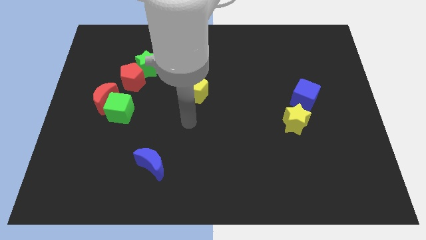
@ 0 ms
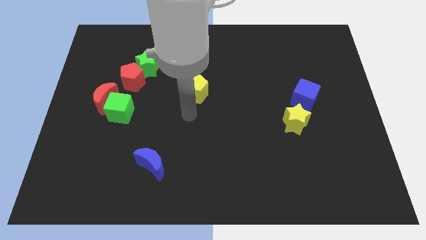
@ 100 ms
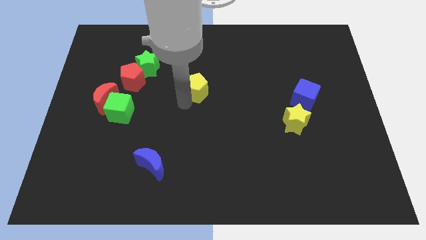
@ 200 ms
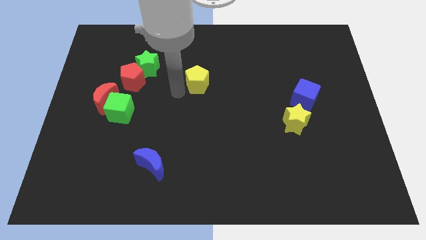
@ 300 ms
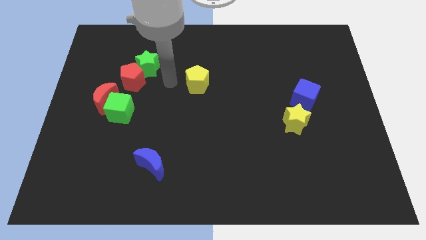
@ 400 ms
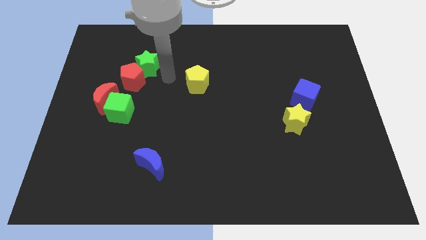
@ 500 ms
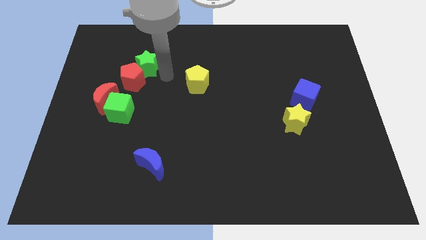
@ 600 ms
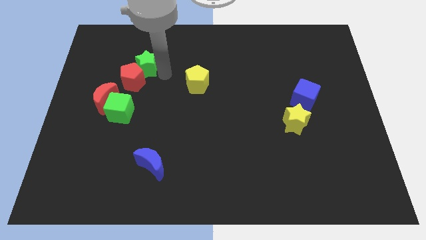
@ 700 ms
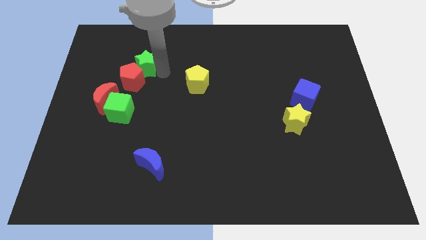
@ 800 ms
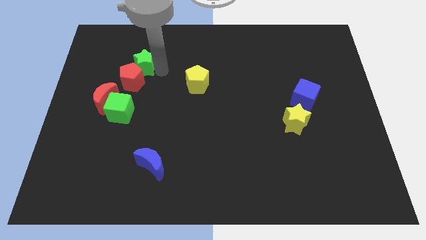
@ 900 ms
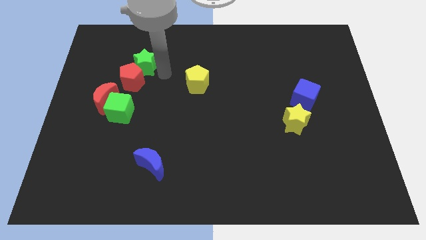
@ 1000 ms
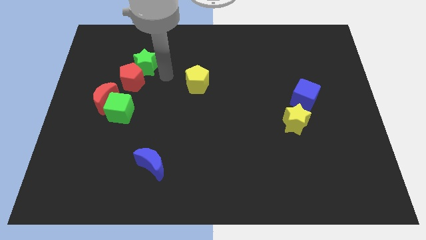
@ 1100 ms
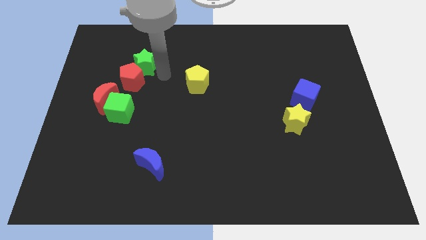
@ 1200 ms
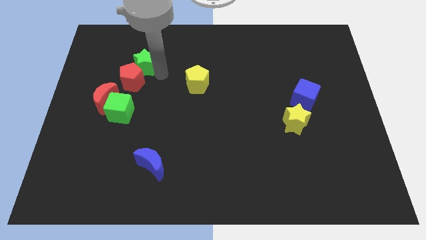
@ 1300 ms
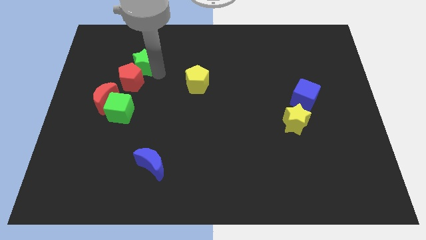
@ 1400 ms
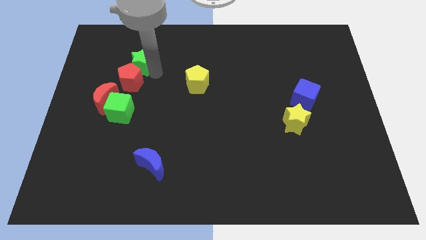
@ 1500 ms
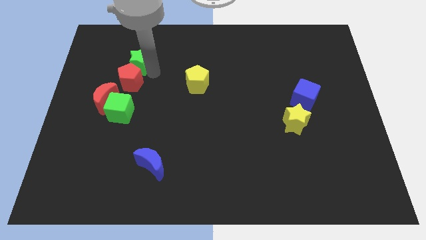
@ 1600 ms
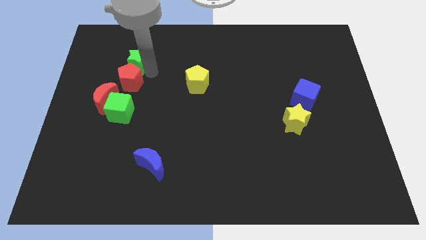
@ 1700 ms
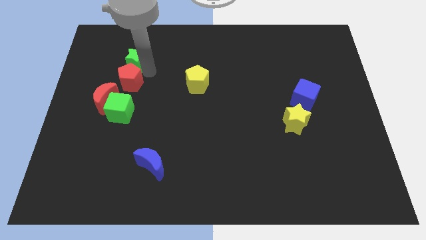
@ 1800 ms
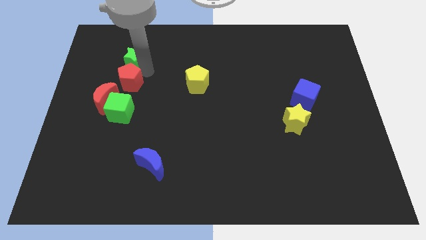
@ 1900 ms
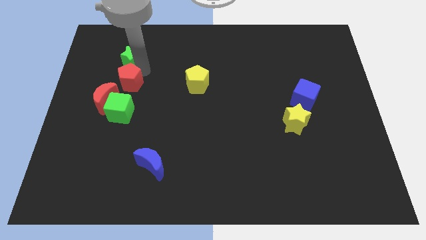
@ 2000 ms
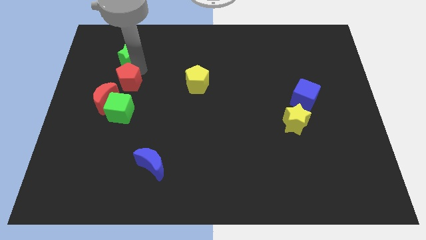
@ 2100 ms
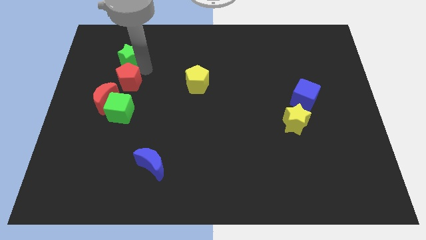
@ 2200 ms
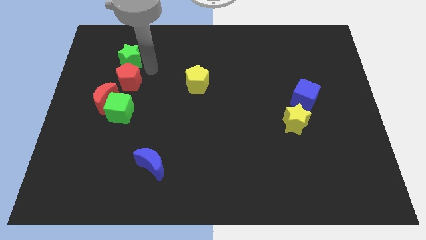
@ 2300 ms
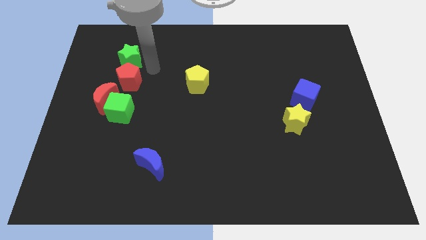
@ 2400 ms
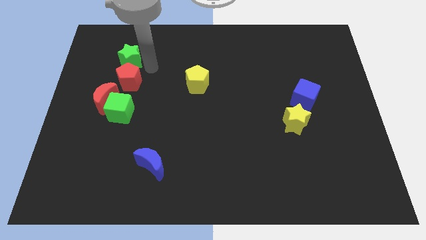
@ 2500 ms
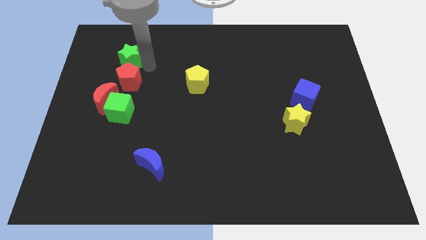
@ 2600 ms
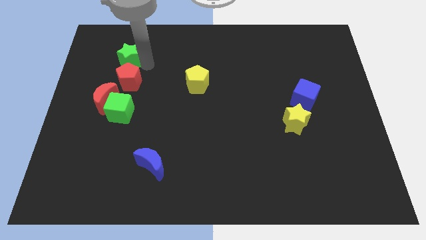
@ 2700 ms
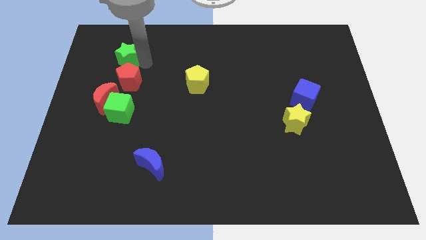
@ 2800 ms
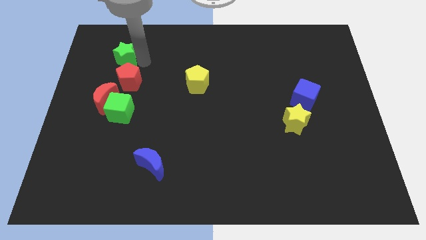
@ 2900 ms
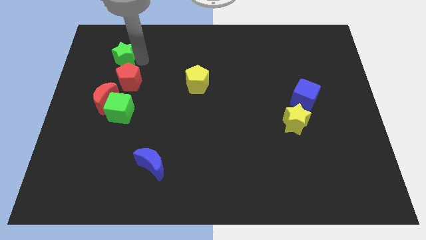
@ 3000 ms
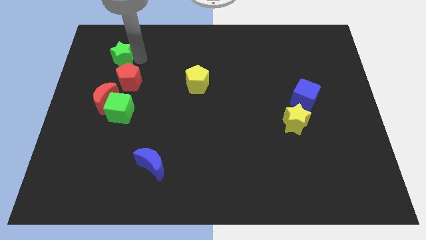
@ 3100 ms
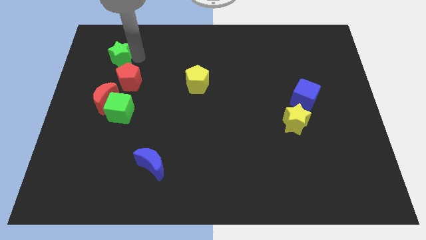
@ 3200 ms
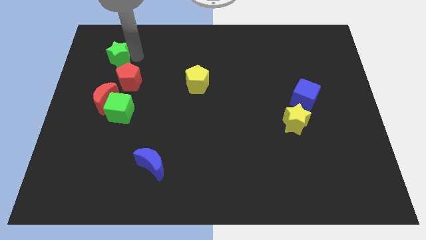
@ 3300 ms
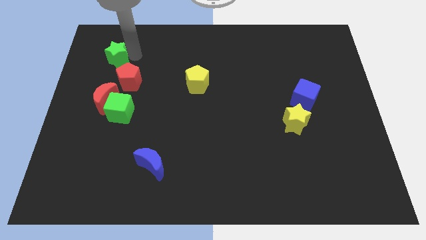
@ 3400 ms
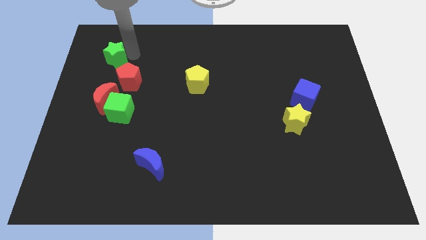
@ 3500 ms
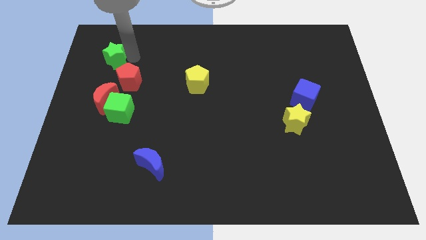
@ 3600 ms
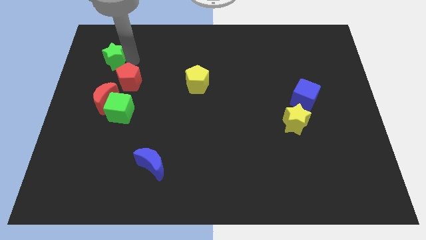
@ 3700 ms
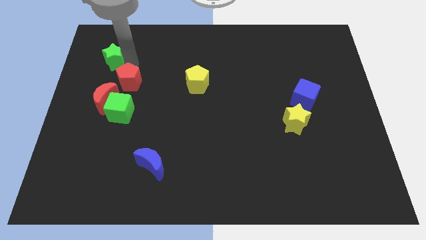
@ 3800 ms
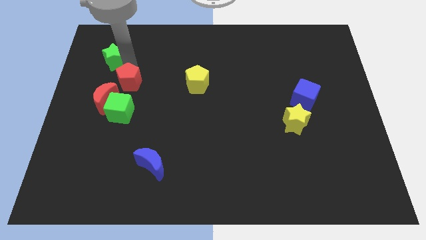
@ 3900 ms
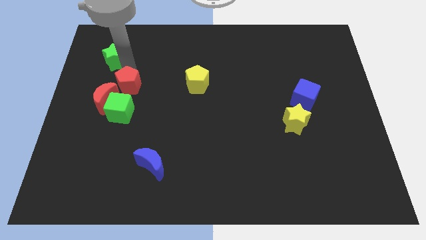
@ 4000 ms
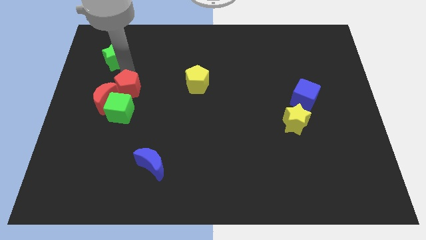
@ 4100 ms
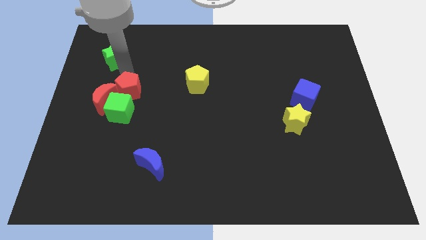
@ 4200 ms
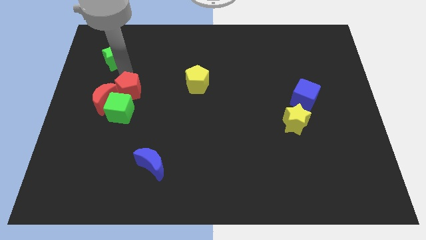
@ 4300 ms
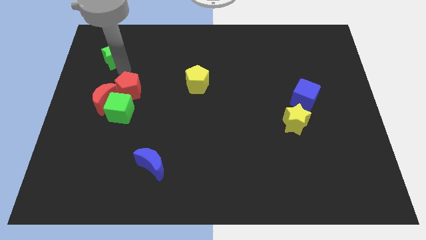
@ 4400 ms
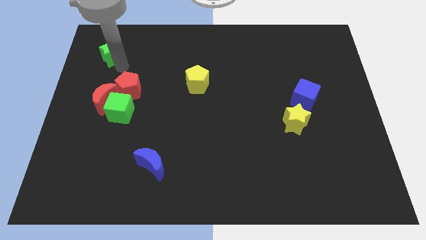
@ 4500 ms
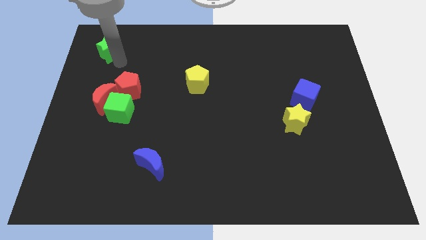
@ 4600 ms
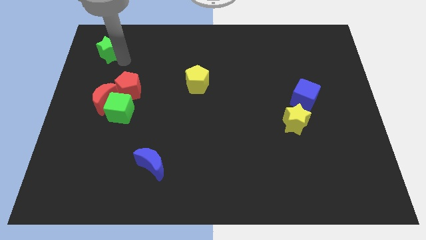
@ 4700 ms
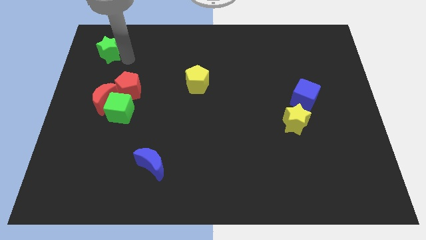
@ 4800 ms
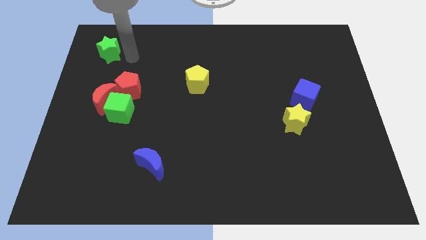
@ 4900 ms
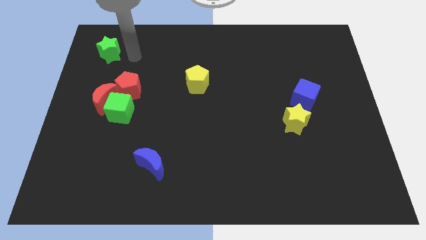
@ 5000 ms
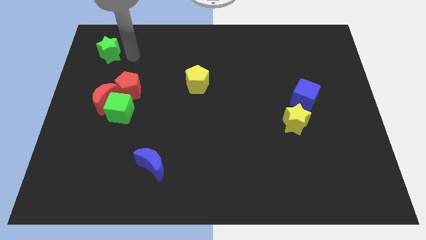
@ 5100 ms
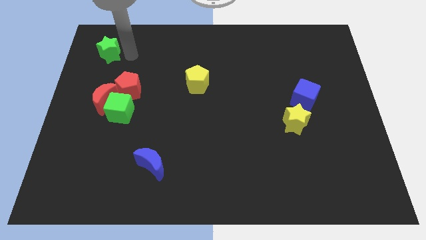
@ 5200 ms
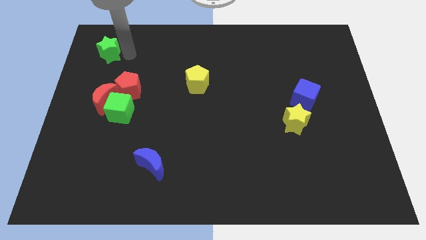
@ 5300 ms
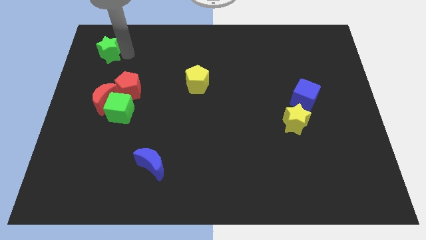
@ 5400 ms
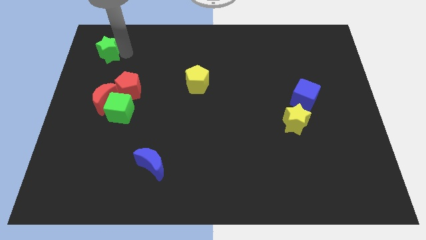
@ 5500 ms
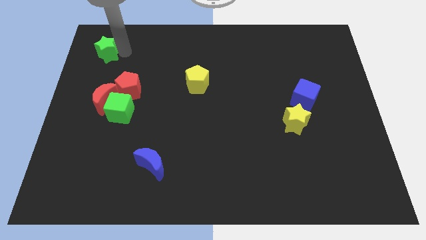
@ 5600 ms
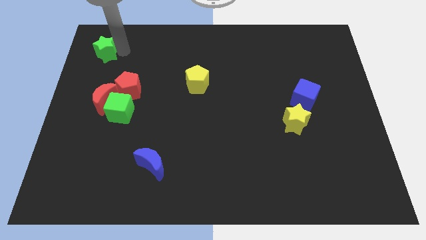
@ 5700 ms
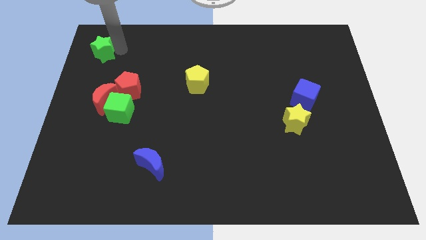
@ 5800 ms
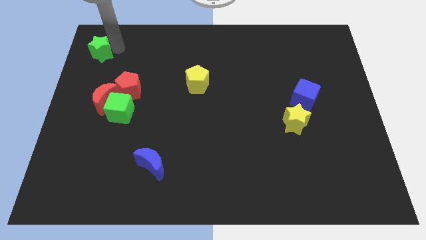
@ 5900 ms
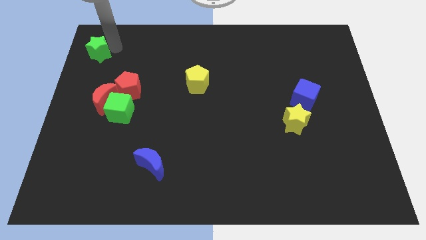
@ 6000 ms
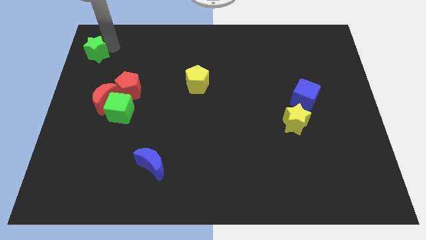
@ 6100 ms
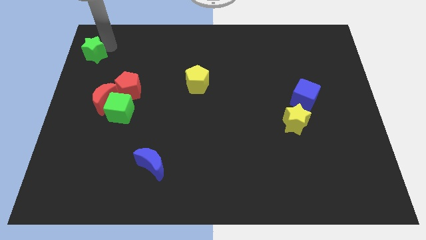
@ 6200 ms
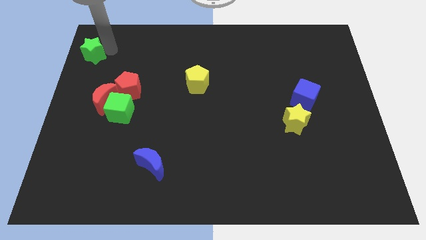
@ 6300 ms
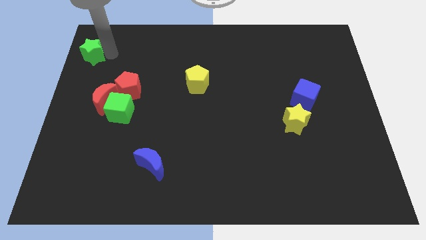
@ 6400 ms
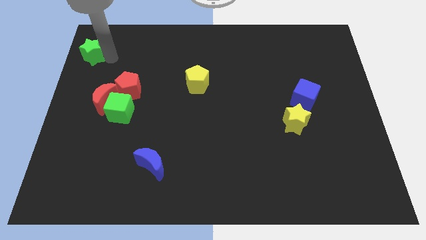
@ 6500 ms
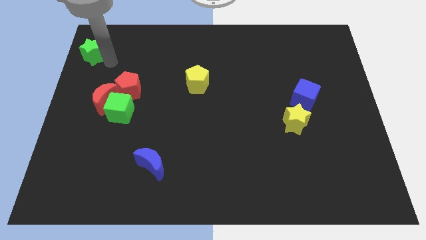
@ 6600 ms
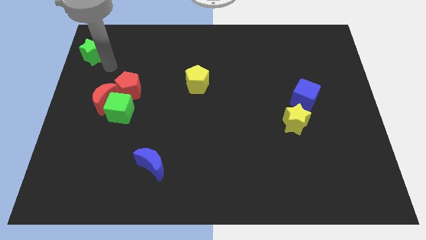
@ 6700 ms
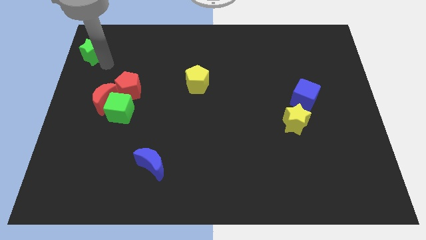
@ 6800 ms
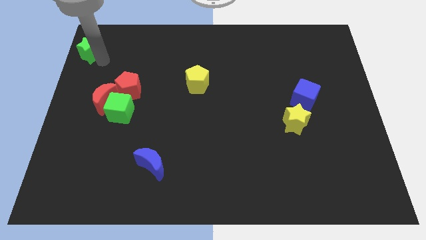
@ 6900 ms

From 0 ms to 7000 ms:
slide the green star to the upper left corner
